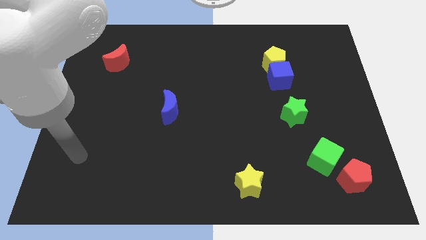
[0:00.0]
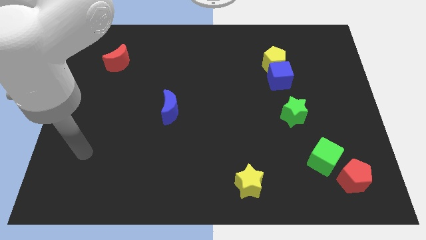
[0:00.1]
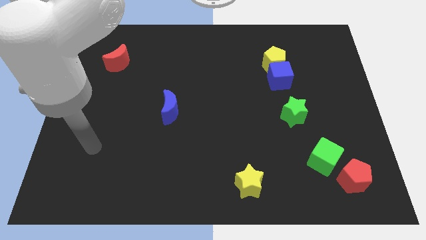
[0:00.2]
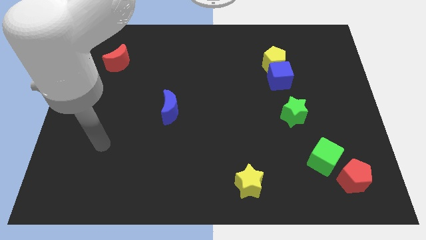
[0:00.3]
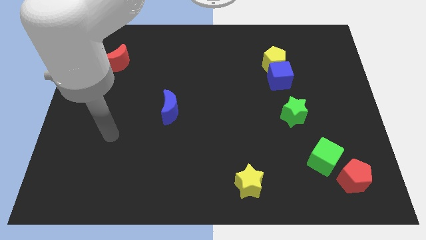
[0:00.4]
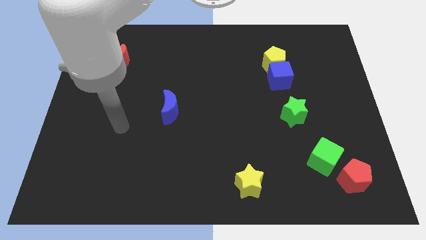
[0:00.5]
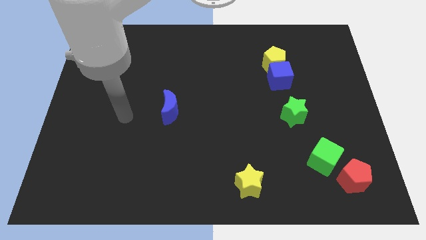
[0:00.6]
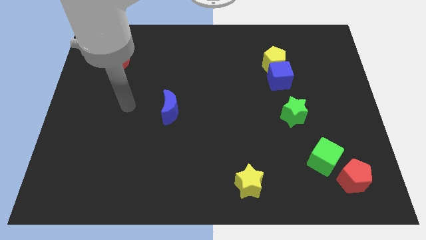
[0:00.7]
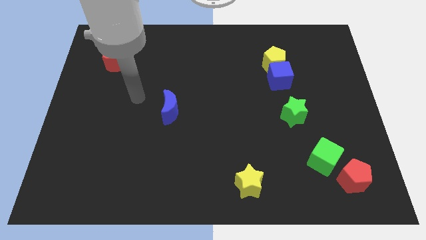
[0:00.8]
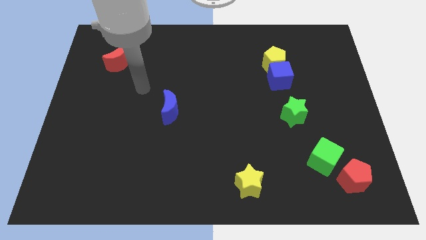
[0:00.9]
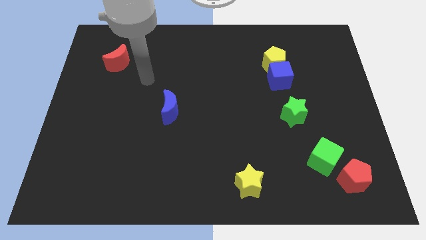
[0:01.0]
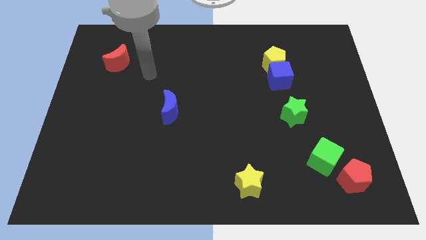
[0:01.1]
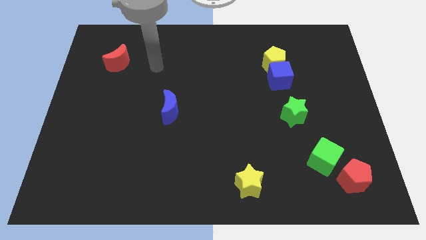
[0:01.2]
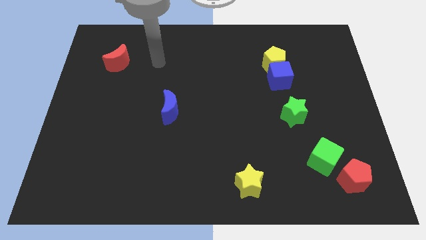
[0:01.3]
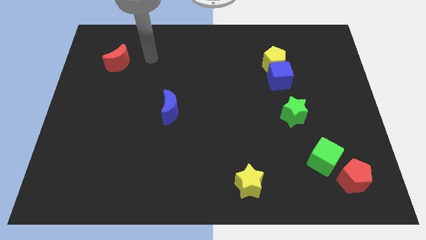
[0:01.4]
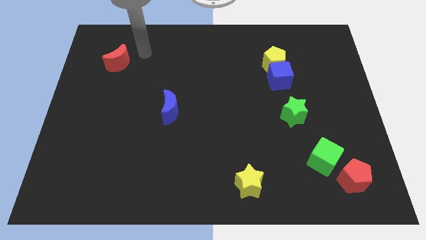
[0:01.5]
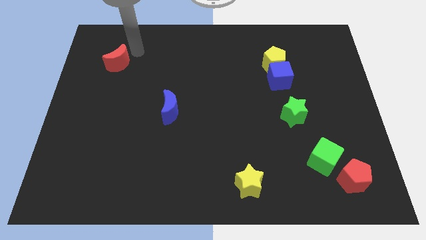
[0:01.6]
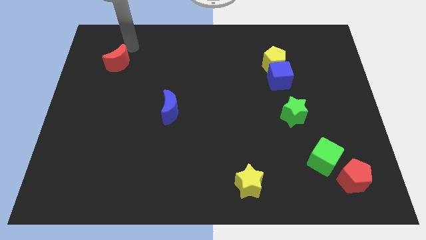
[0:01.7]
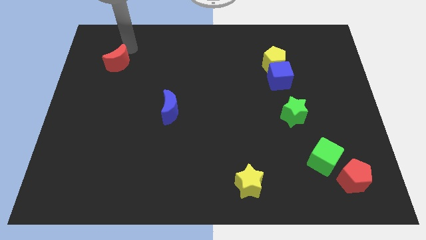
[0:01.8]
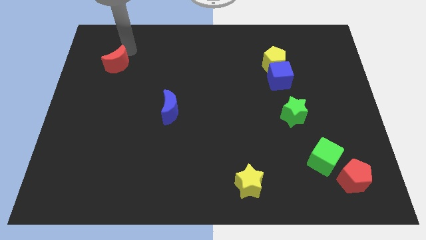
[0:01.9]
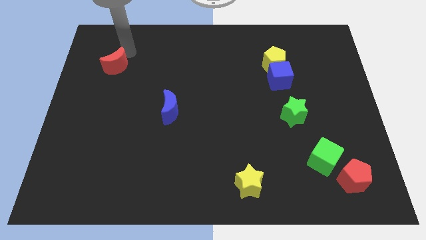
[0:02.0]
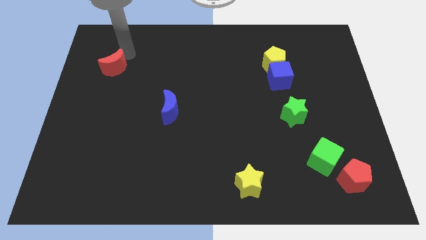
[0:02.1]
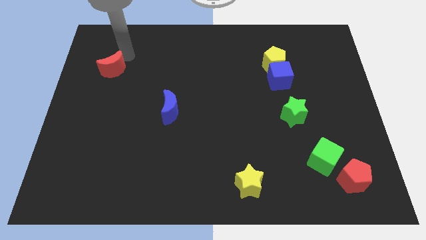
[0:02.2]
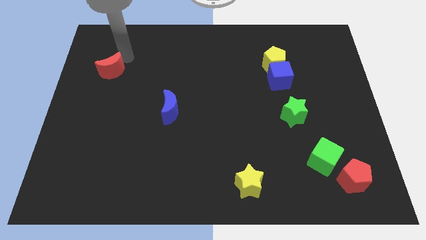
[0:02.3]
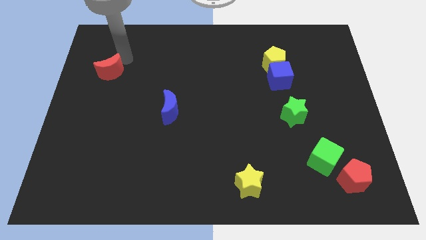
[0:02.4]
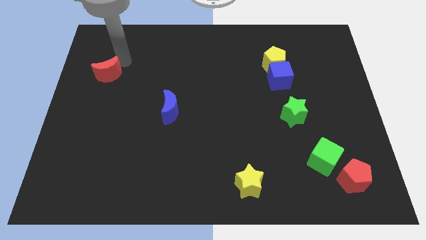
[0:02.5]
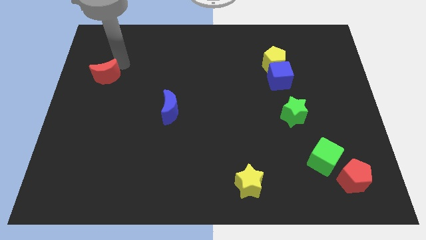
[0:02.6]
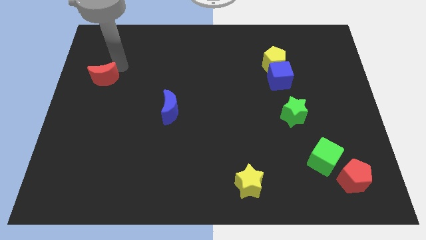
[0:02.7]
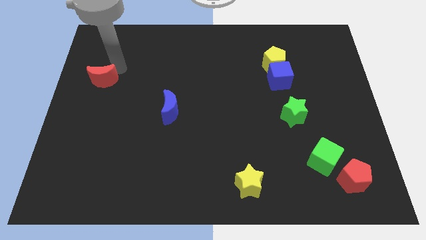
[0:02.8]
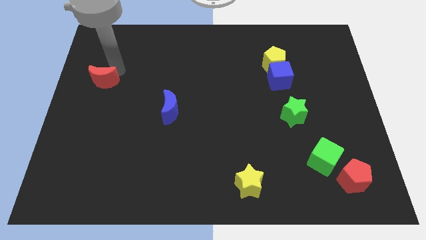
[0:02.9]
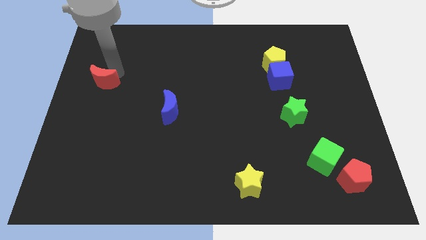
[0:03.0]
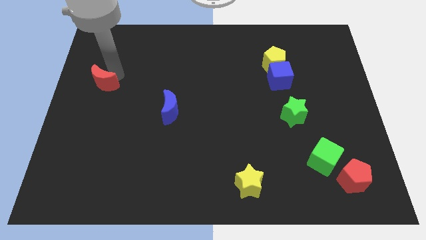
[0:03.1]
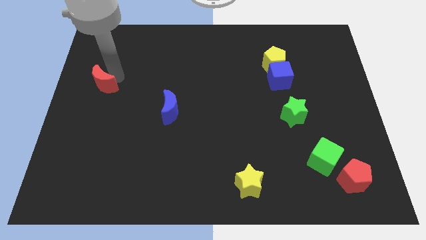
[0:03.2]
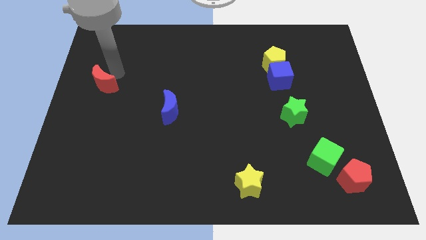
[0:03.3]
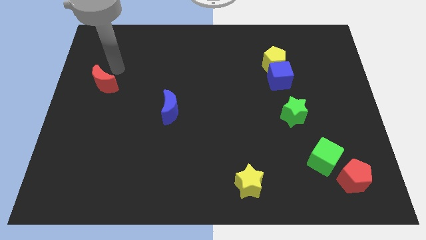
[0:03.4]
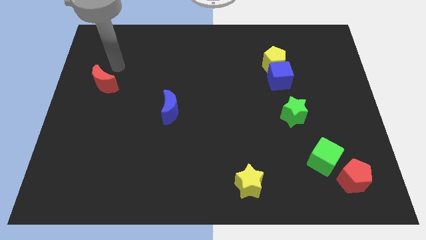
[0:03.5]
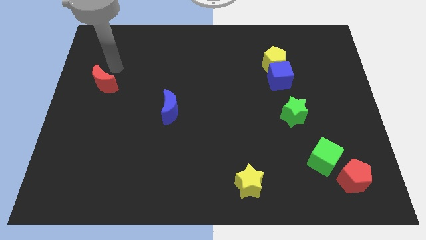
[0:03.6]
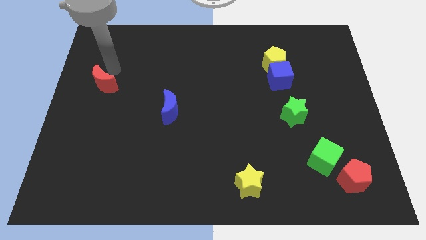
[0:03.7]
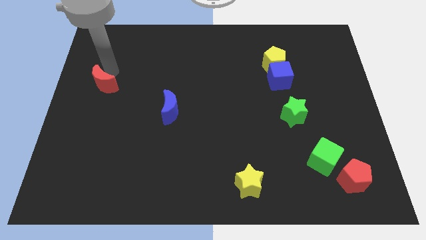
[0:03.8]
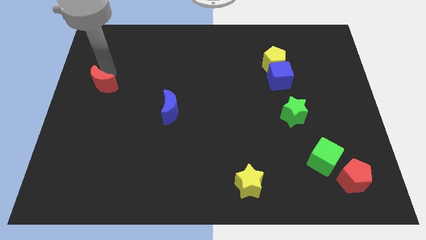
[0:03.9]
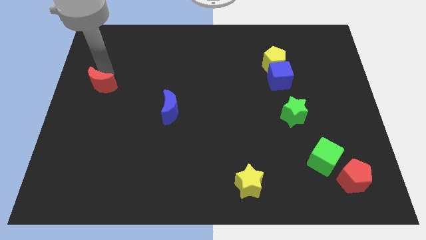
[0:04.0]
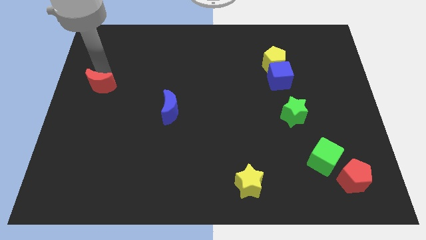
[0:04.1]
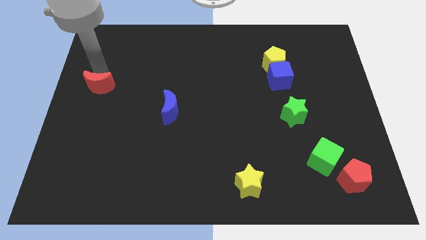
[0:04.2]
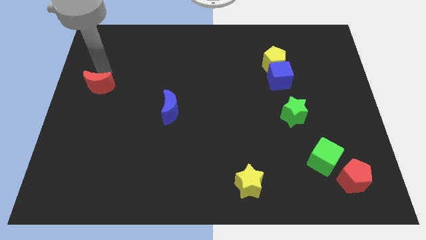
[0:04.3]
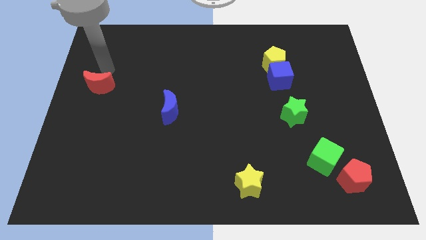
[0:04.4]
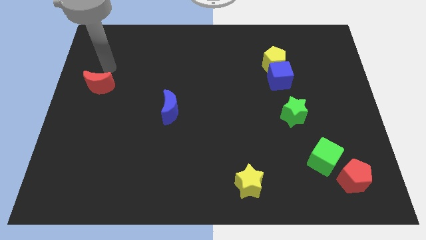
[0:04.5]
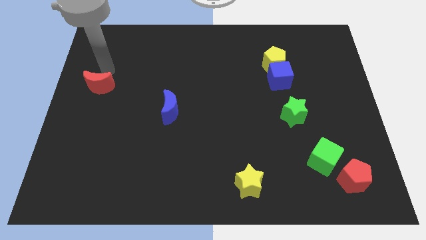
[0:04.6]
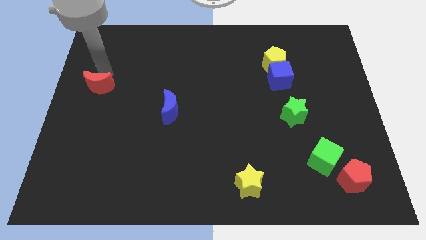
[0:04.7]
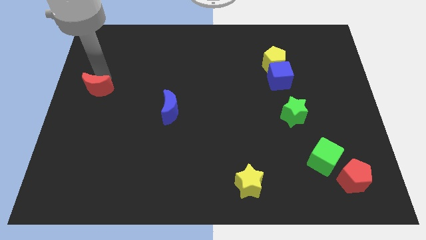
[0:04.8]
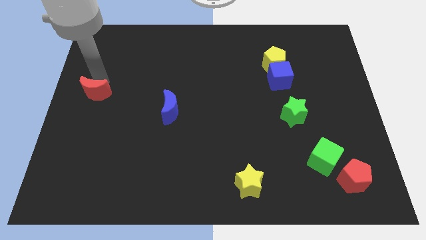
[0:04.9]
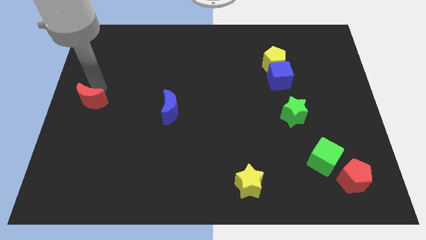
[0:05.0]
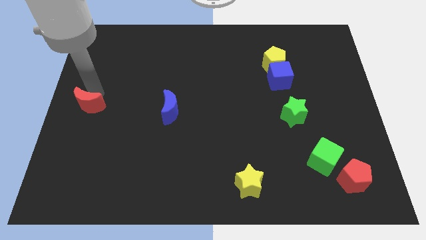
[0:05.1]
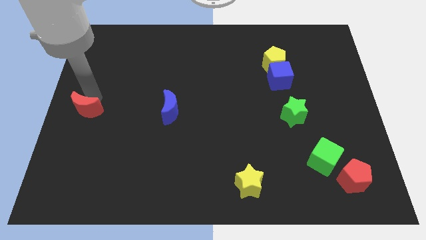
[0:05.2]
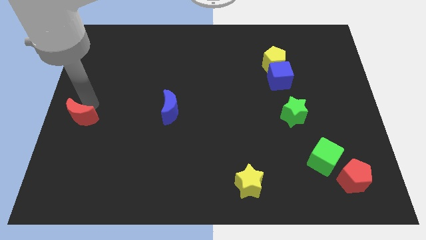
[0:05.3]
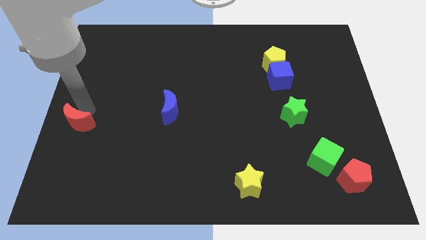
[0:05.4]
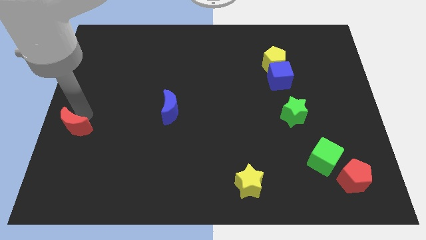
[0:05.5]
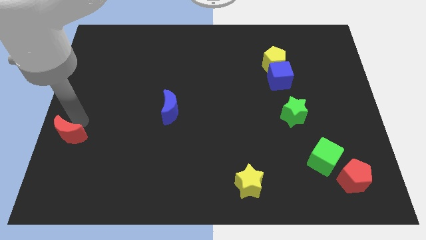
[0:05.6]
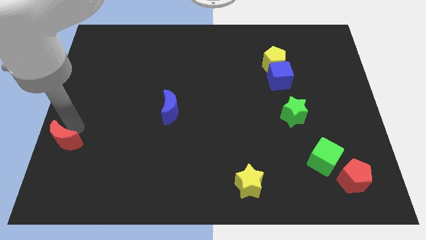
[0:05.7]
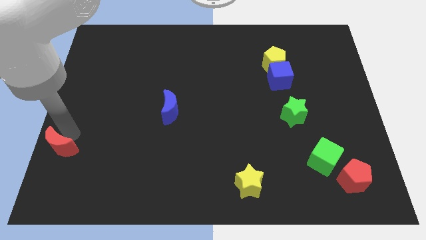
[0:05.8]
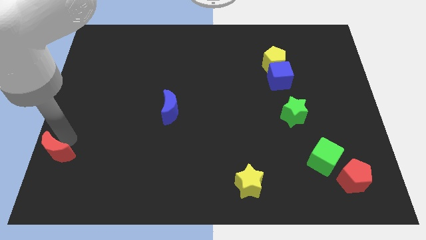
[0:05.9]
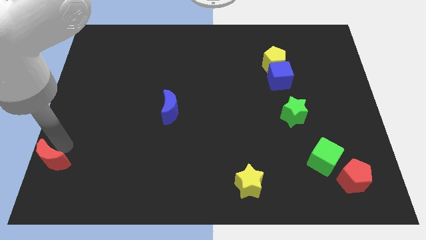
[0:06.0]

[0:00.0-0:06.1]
push the red moon to the bottom left corner
